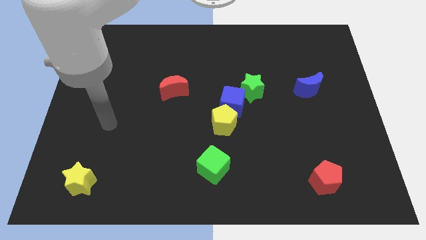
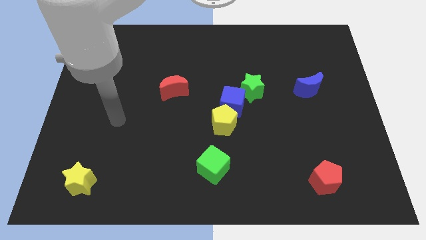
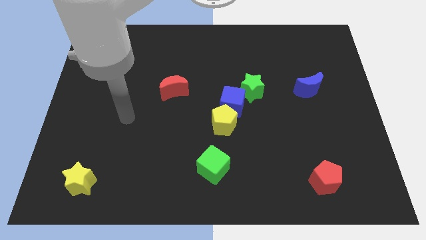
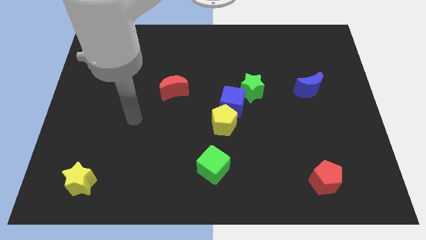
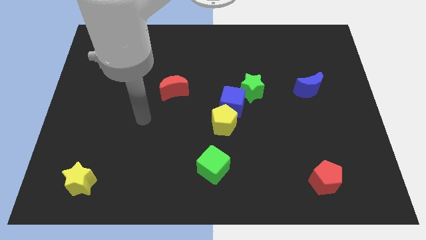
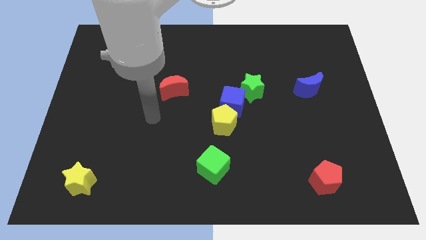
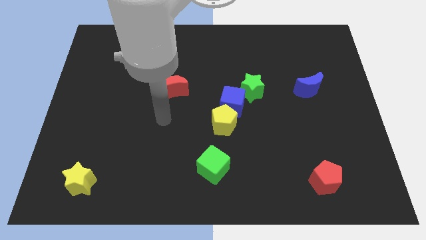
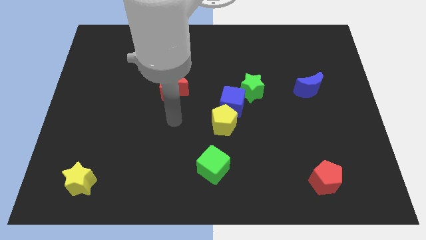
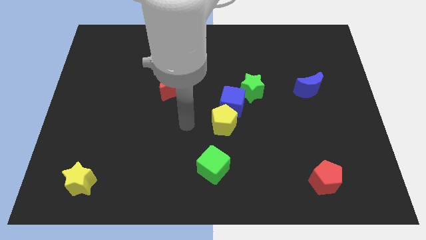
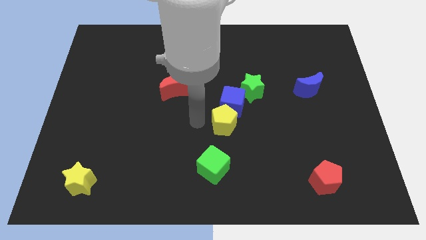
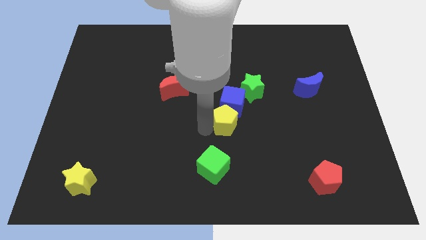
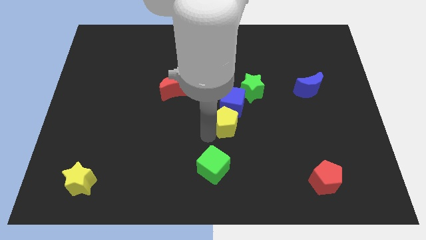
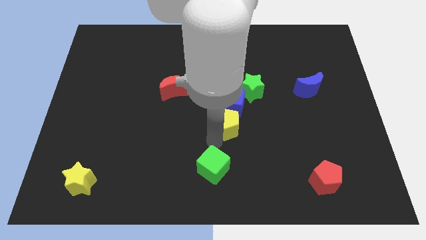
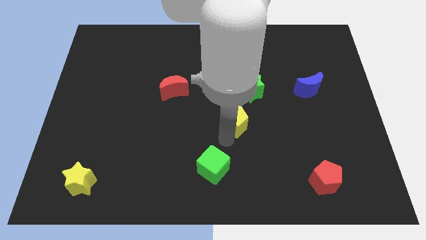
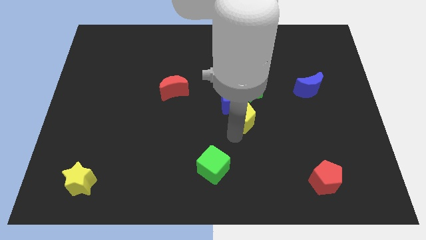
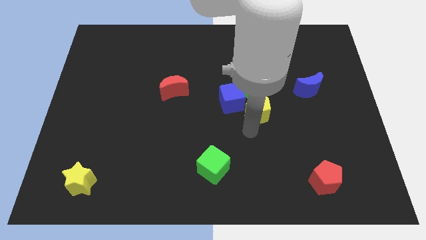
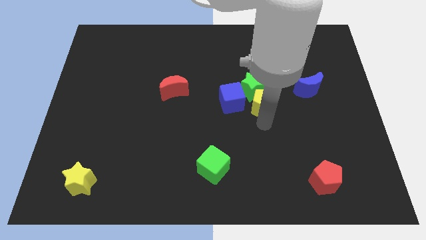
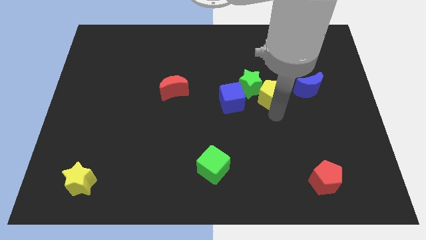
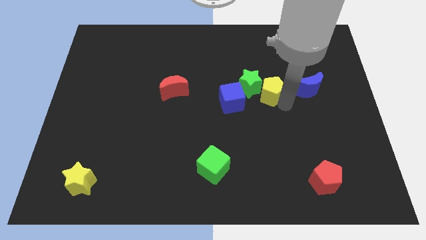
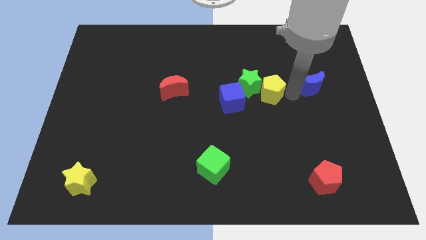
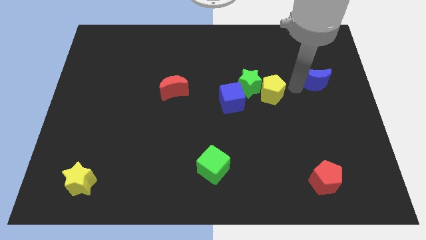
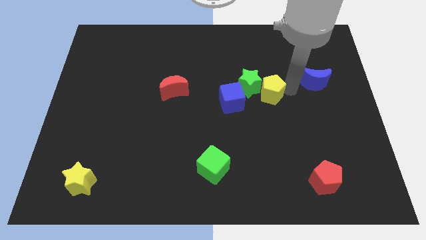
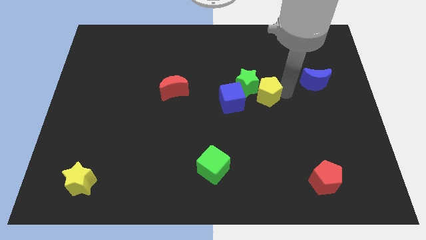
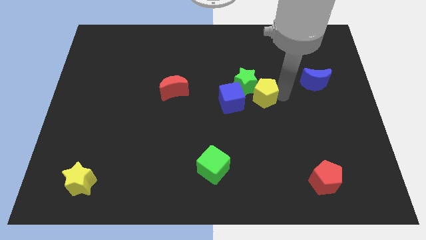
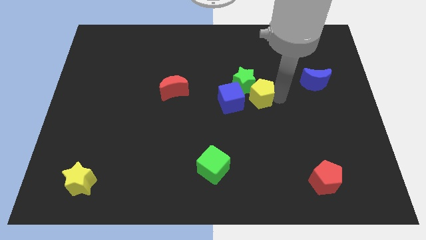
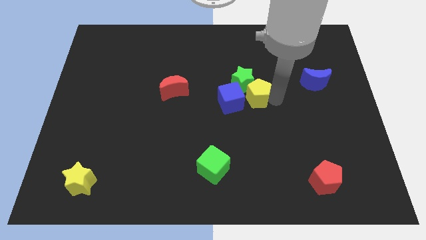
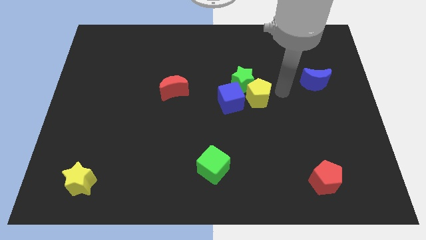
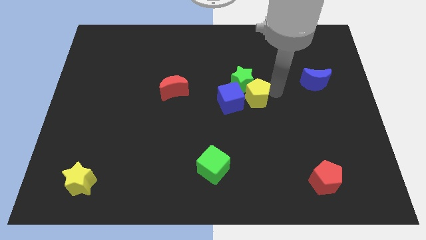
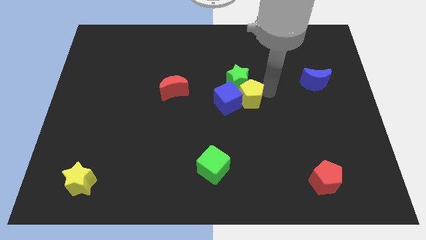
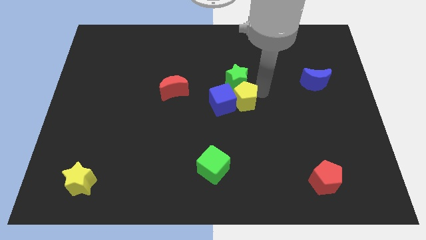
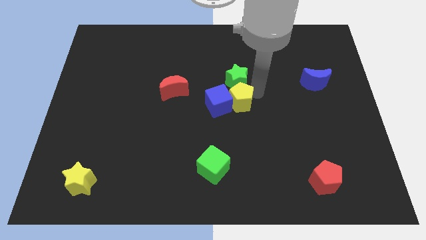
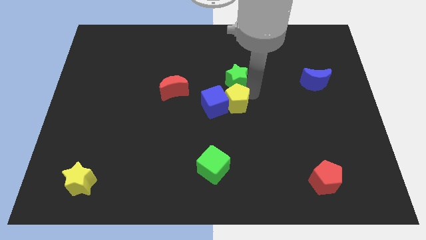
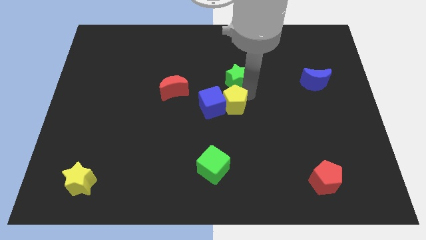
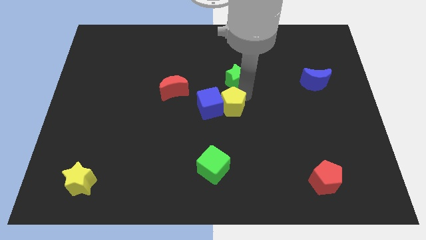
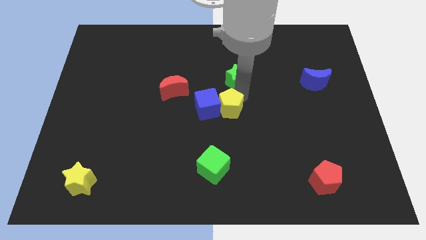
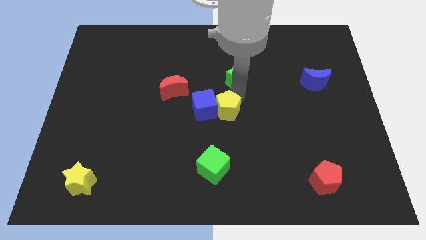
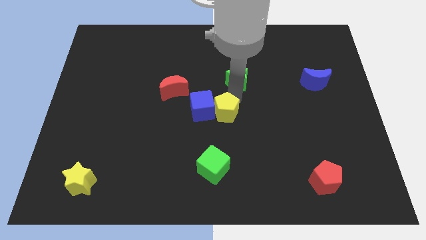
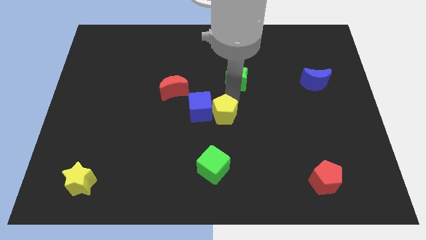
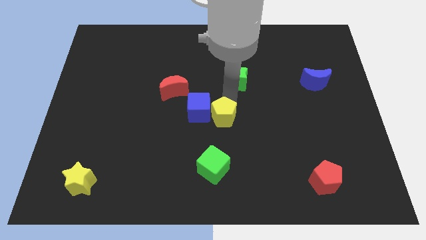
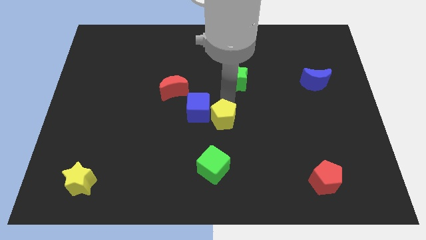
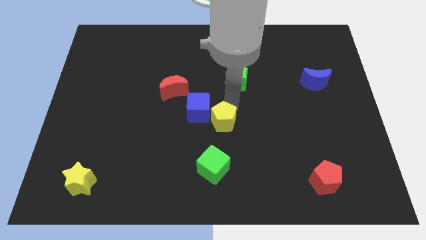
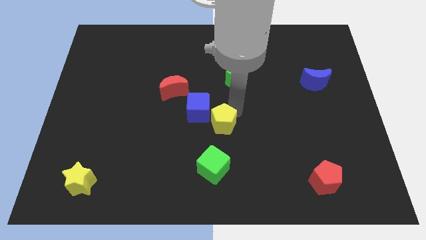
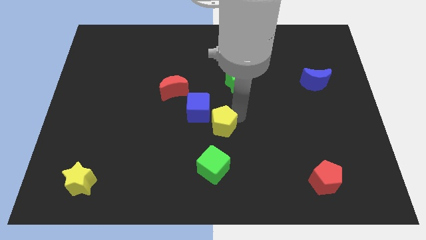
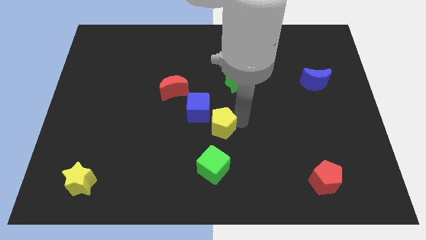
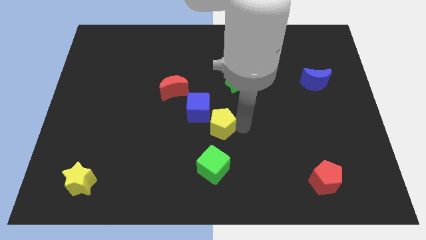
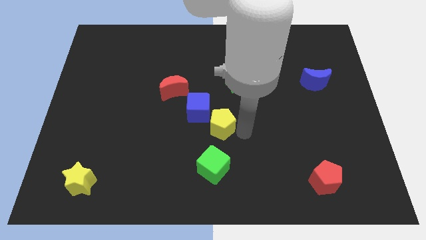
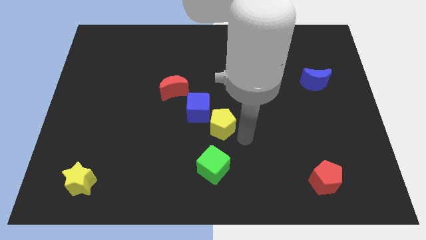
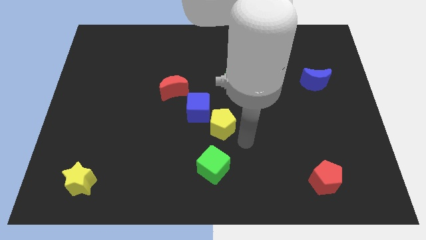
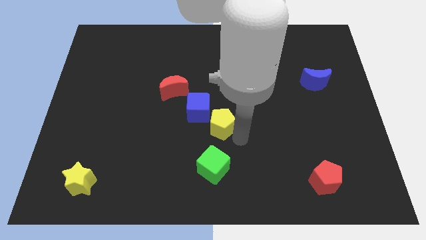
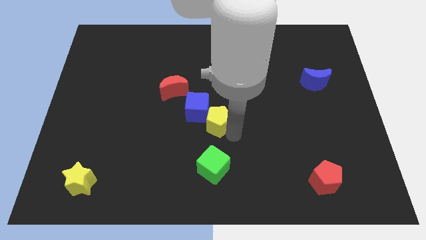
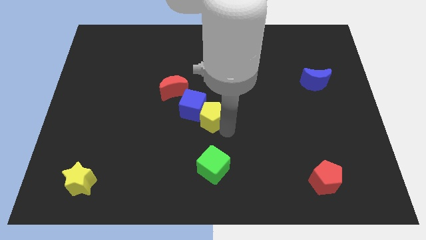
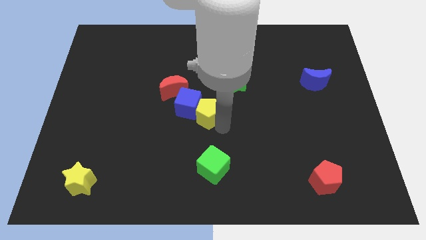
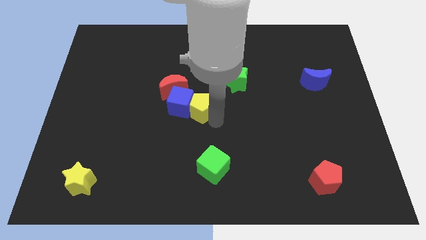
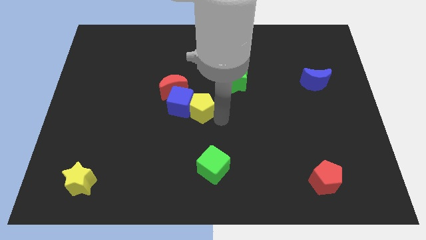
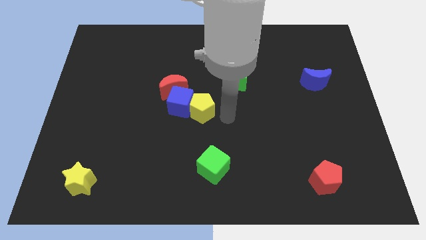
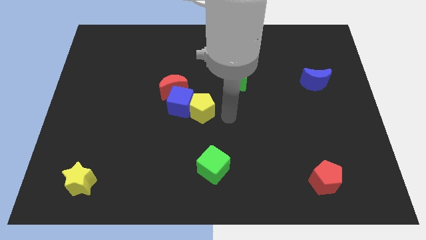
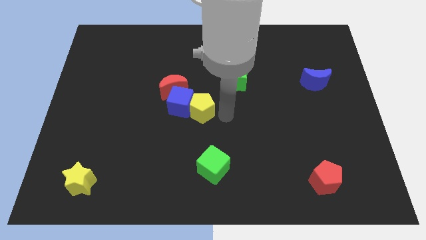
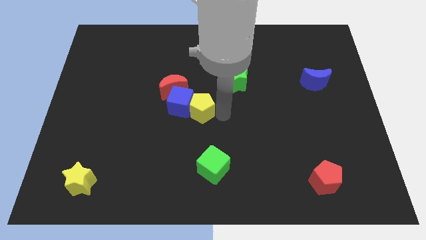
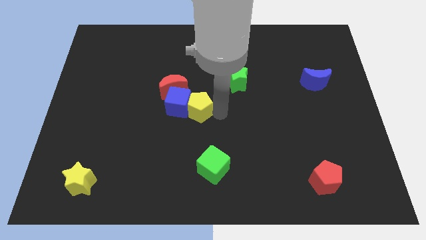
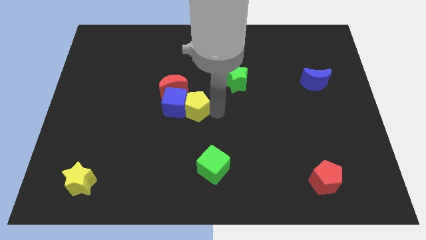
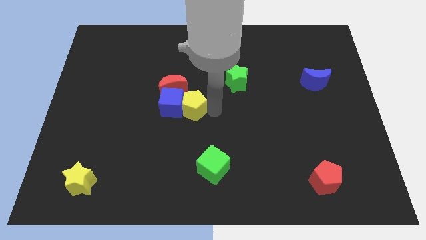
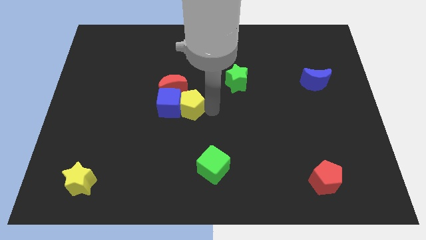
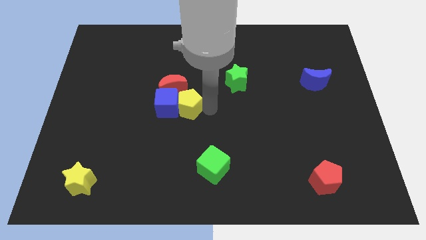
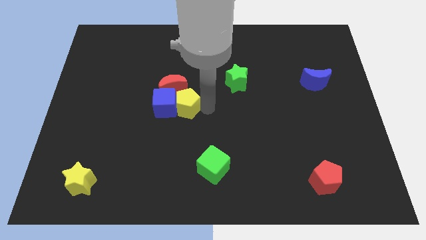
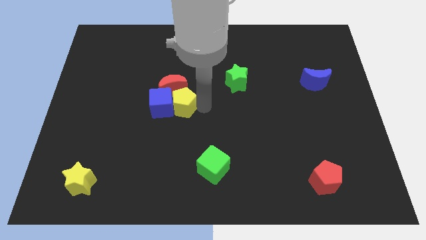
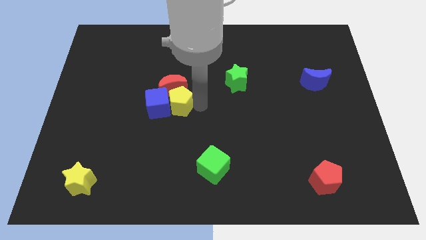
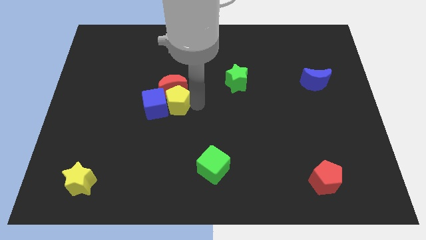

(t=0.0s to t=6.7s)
move the yellow pentagon to the bottom left side of the red moon

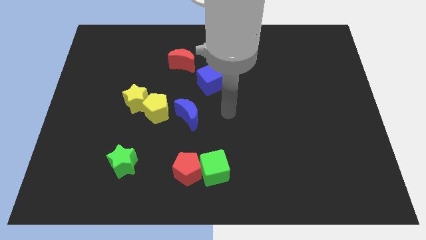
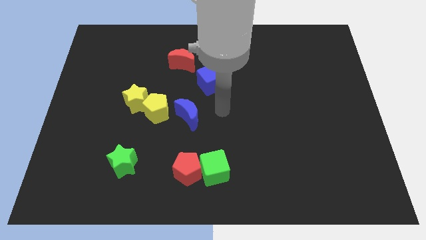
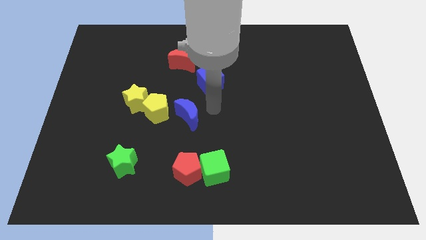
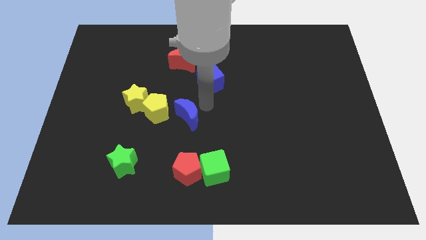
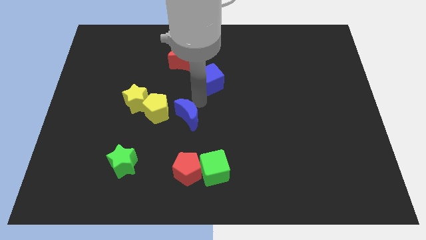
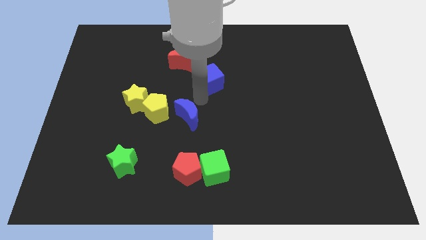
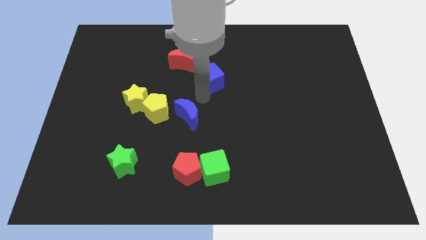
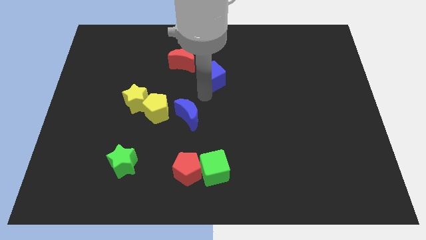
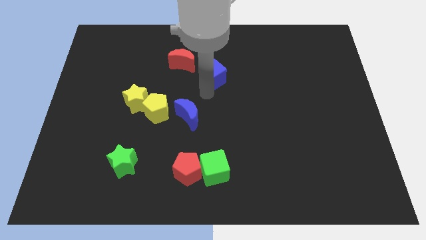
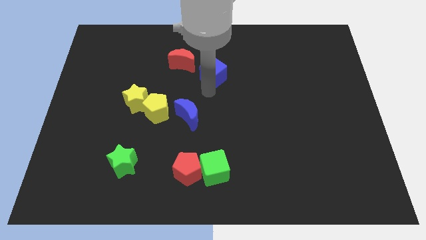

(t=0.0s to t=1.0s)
push the blue cube just right of the red moon
